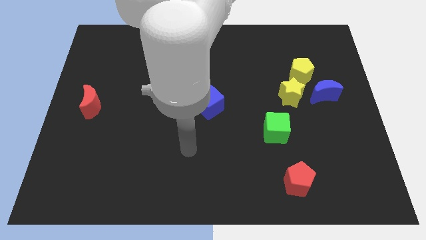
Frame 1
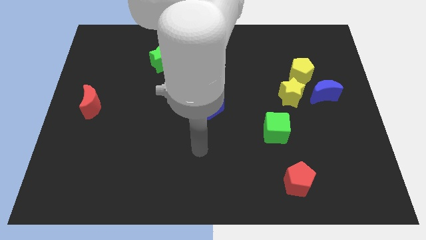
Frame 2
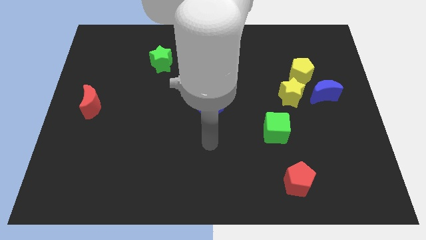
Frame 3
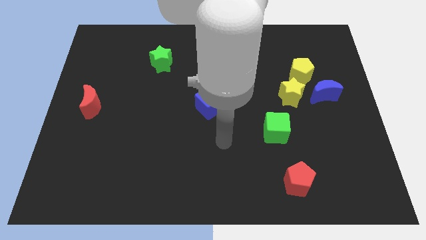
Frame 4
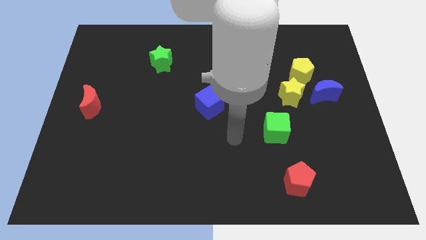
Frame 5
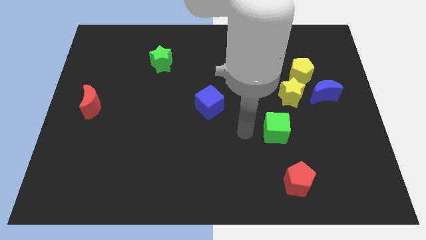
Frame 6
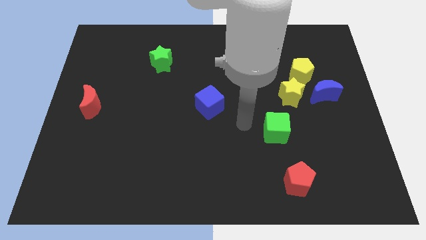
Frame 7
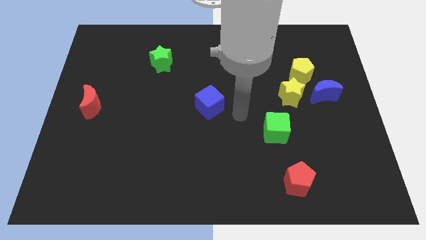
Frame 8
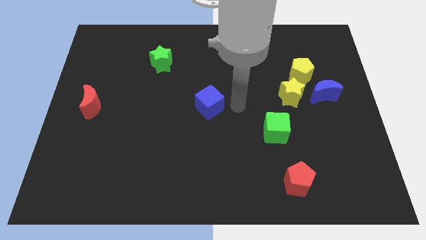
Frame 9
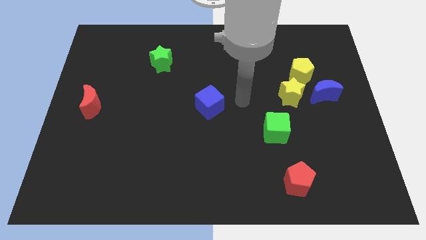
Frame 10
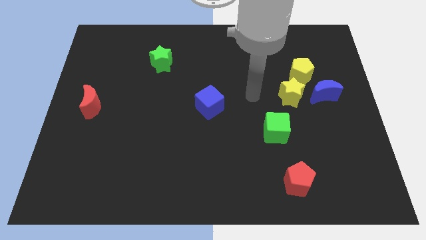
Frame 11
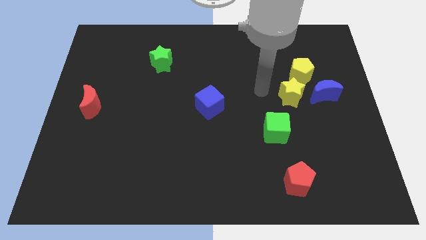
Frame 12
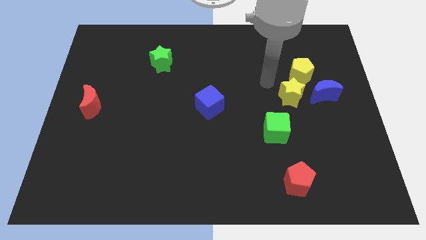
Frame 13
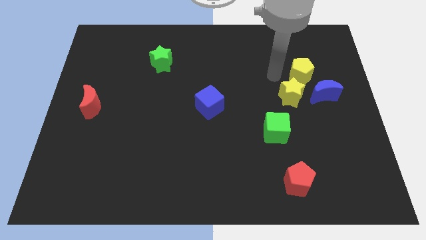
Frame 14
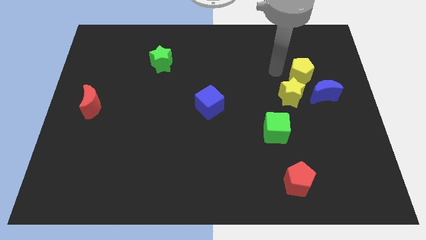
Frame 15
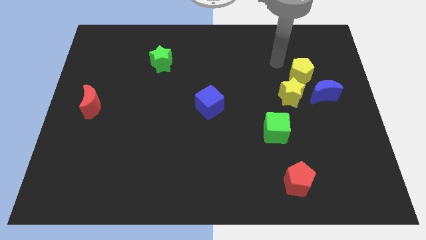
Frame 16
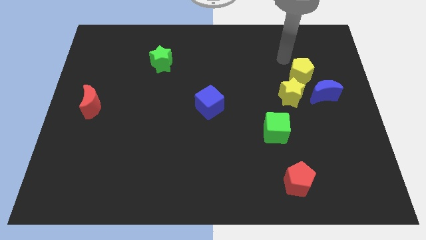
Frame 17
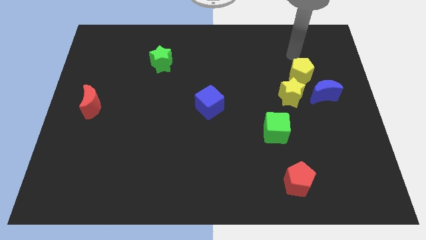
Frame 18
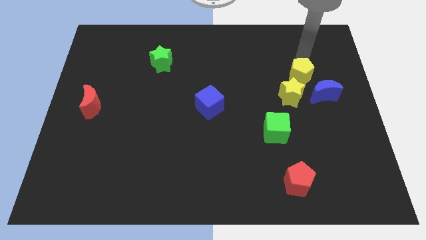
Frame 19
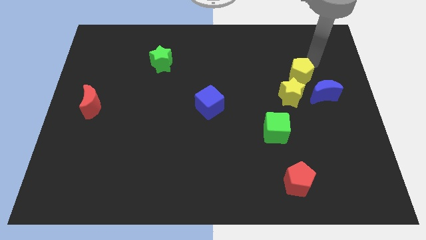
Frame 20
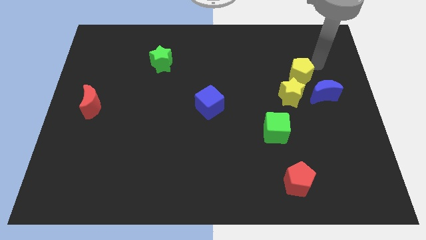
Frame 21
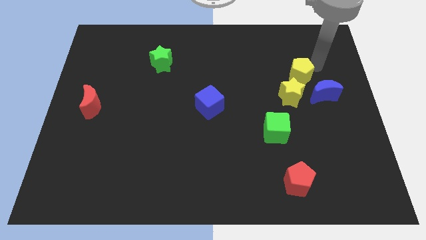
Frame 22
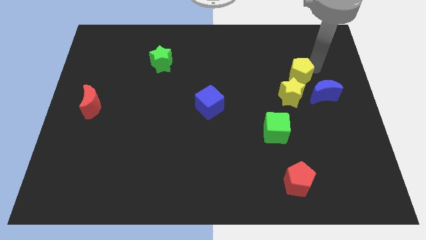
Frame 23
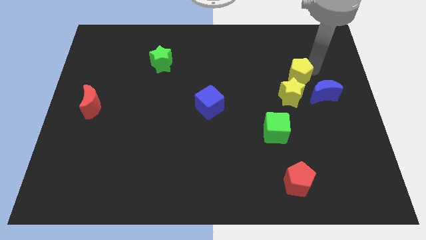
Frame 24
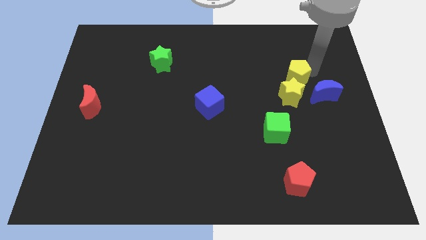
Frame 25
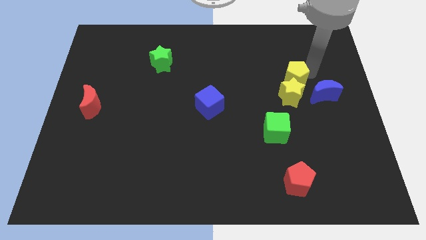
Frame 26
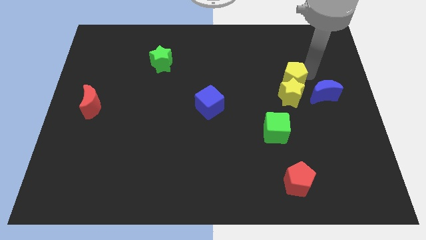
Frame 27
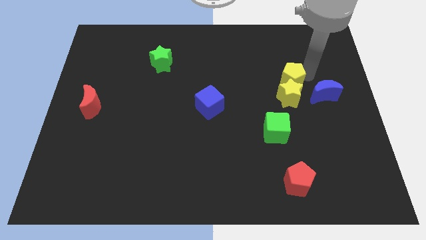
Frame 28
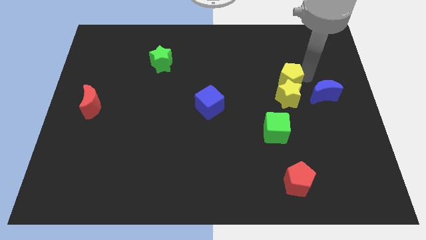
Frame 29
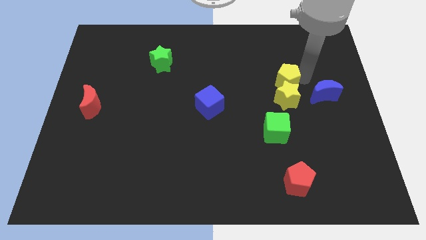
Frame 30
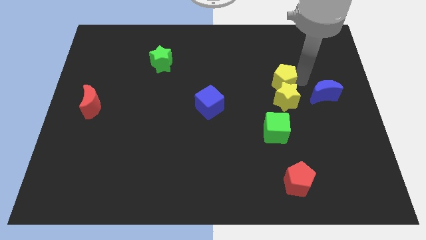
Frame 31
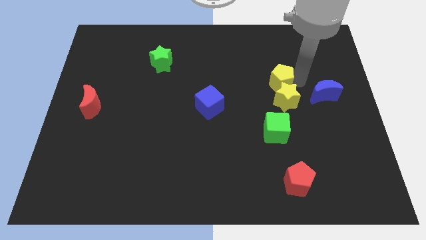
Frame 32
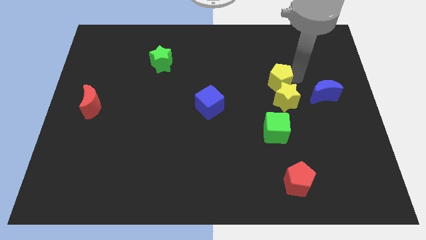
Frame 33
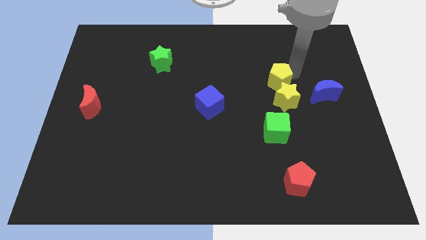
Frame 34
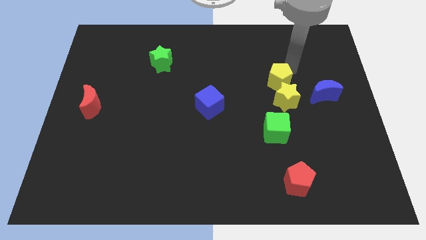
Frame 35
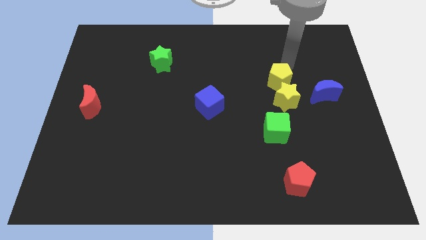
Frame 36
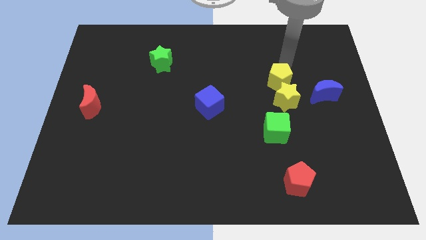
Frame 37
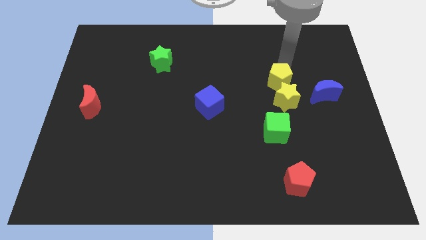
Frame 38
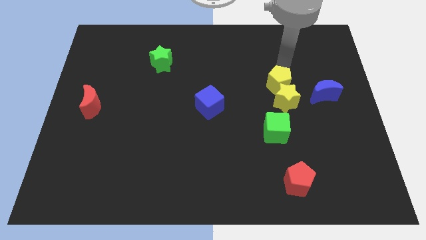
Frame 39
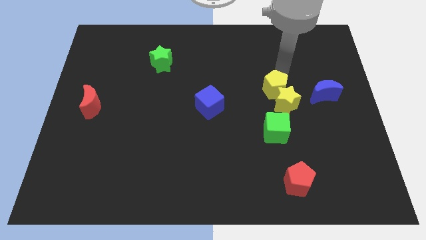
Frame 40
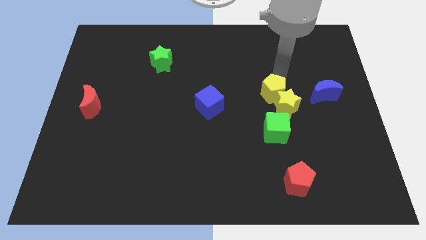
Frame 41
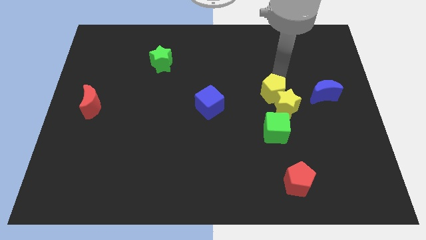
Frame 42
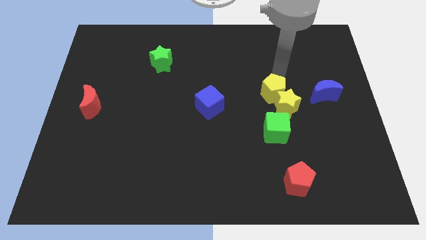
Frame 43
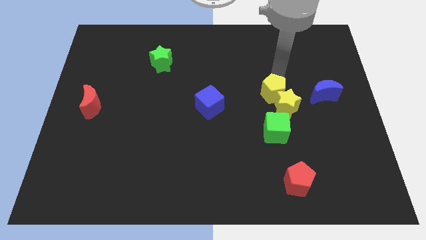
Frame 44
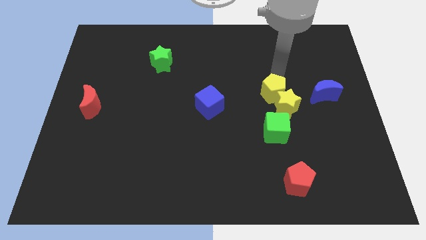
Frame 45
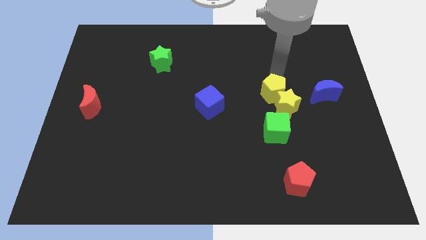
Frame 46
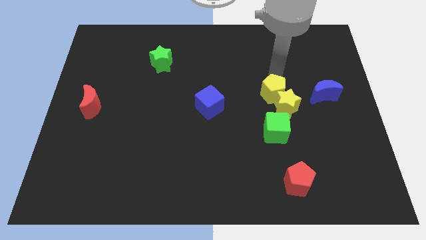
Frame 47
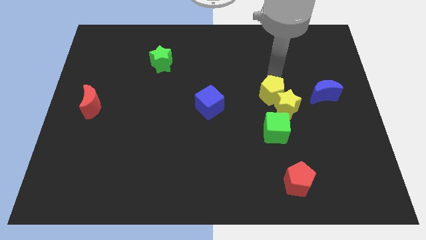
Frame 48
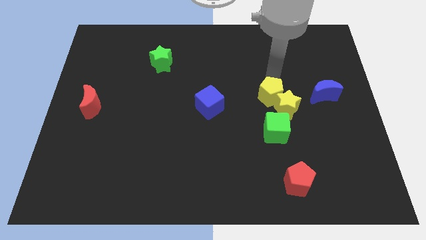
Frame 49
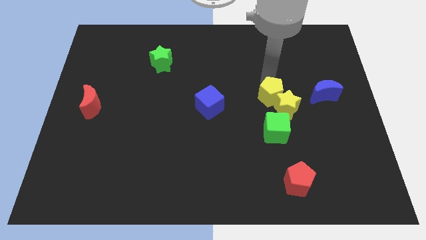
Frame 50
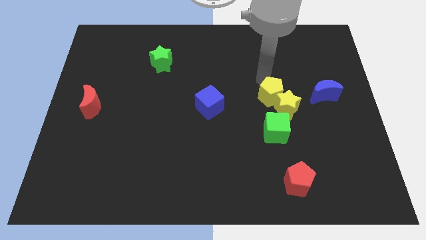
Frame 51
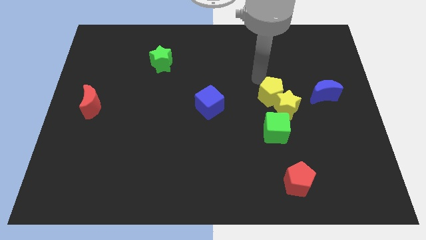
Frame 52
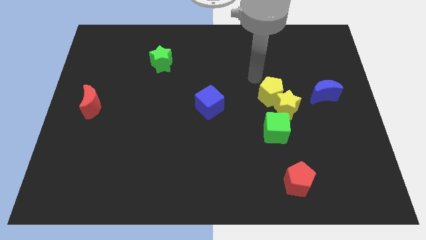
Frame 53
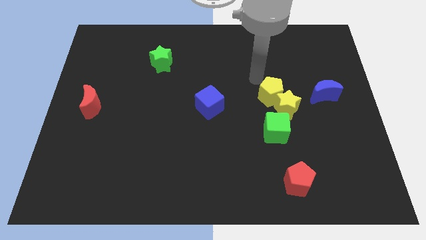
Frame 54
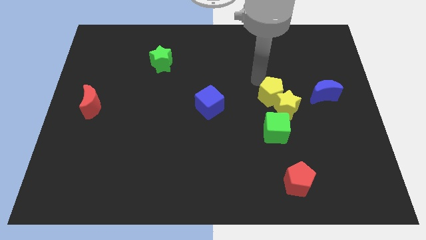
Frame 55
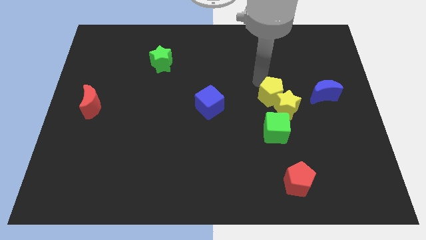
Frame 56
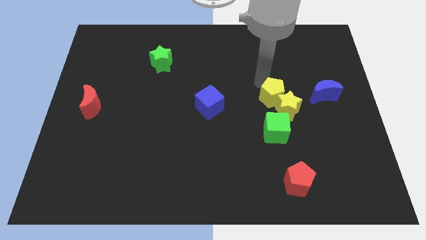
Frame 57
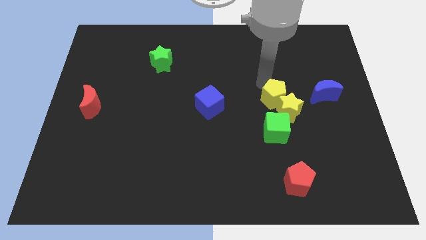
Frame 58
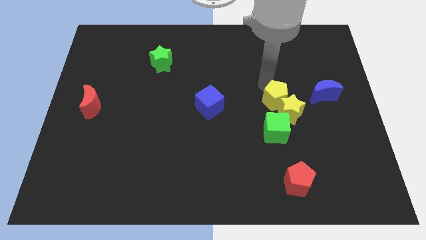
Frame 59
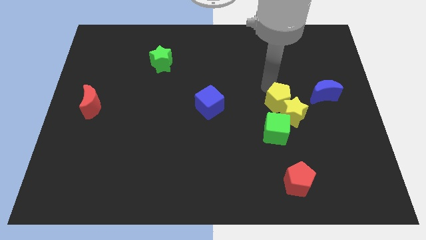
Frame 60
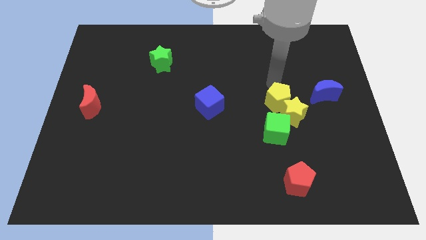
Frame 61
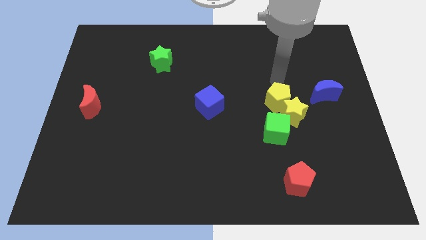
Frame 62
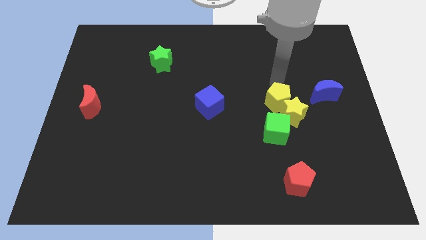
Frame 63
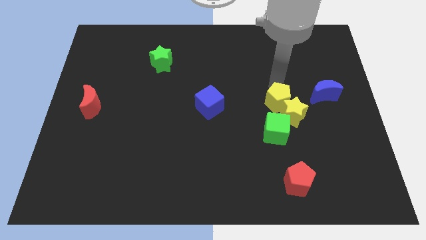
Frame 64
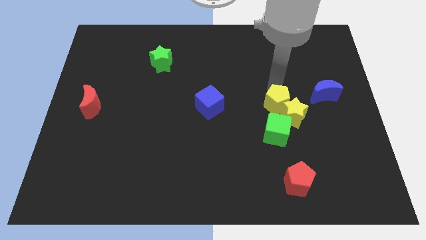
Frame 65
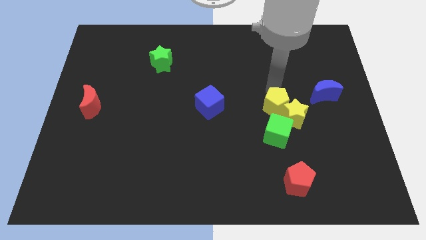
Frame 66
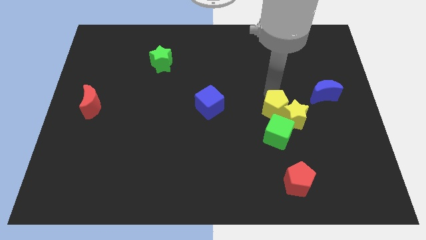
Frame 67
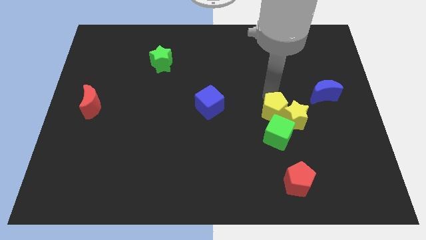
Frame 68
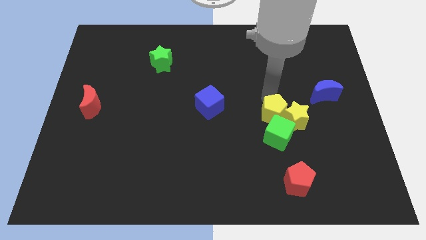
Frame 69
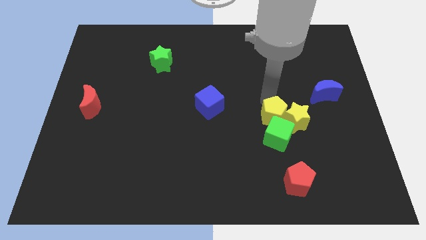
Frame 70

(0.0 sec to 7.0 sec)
push the yellow pentagon next to the green cube
